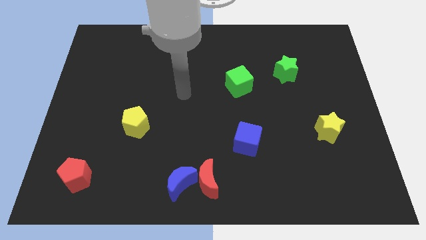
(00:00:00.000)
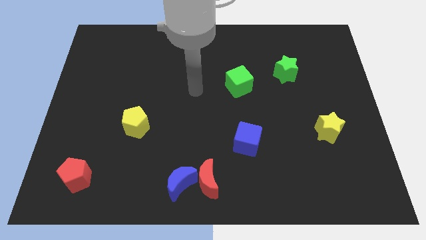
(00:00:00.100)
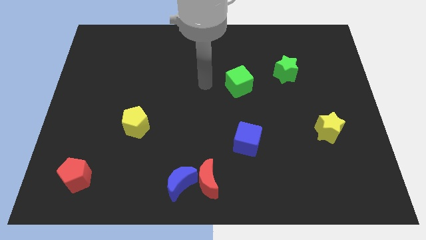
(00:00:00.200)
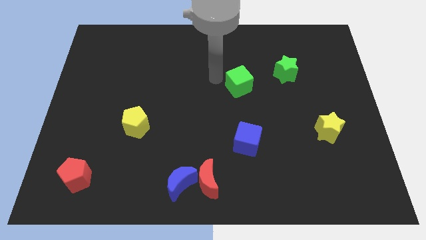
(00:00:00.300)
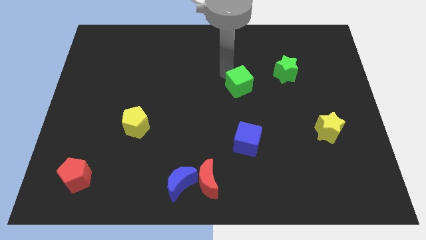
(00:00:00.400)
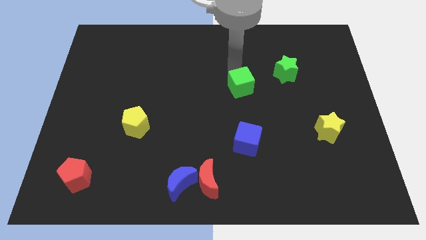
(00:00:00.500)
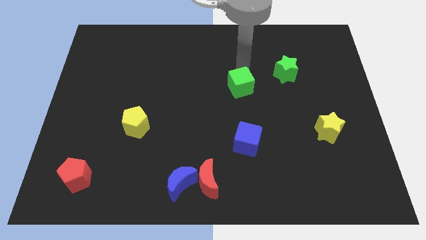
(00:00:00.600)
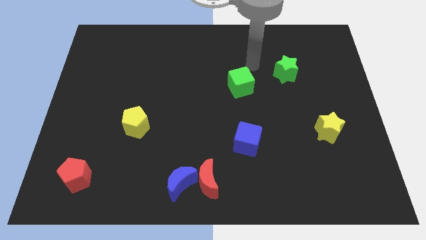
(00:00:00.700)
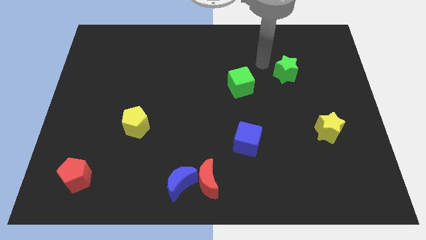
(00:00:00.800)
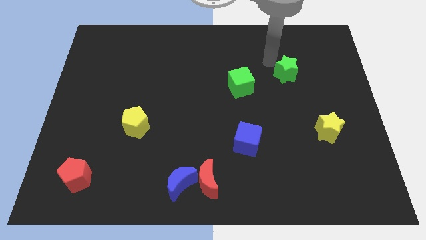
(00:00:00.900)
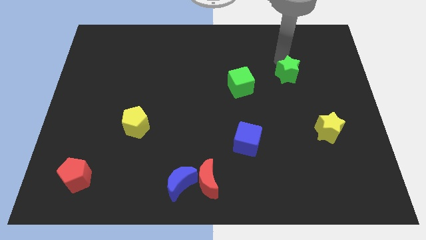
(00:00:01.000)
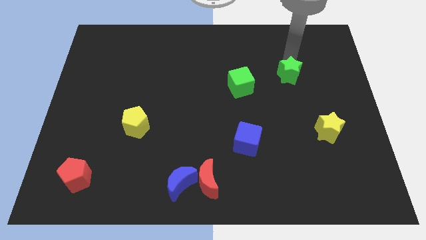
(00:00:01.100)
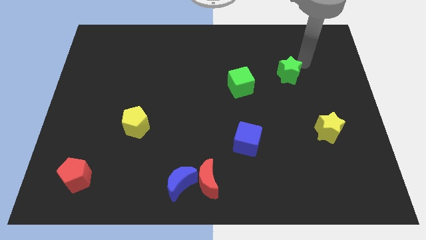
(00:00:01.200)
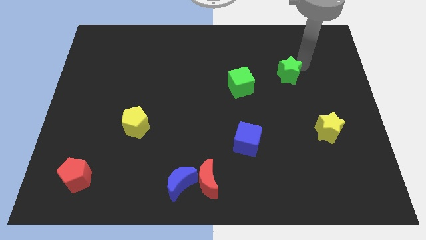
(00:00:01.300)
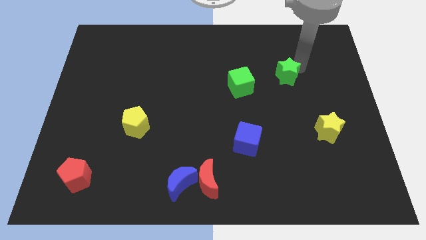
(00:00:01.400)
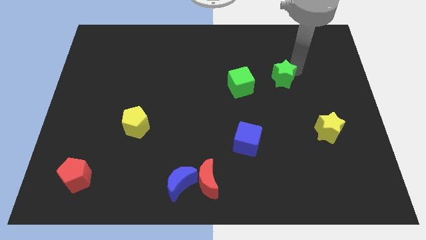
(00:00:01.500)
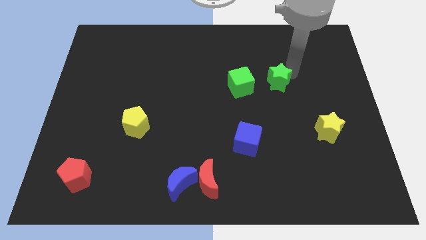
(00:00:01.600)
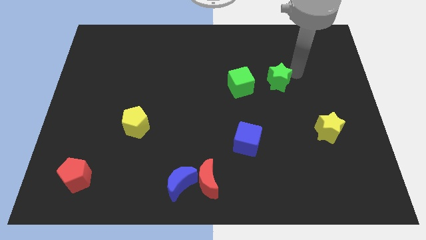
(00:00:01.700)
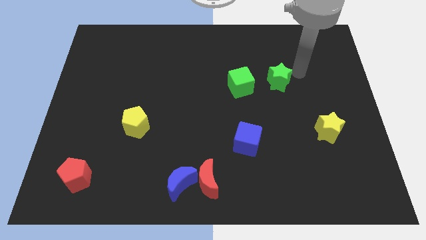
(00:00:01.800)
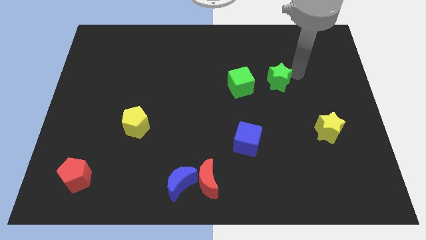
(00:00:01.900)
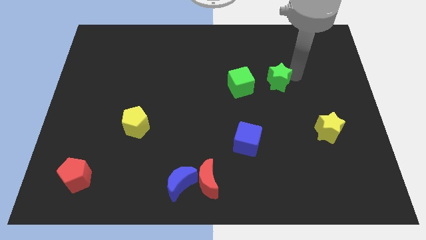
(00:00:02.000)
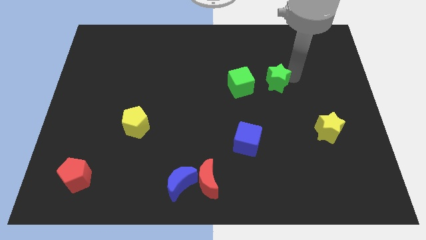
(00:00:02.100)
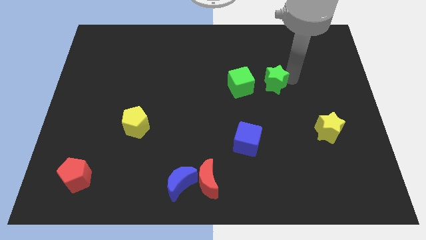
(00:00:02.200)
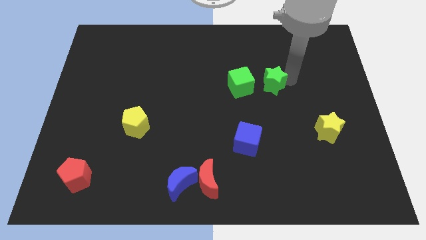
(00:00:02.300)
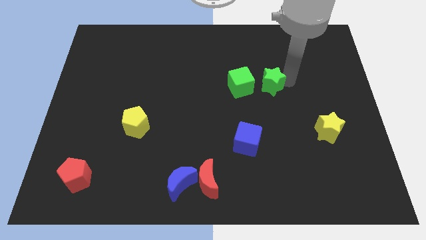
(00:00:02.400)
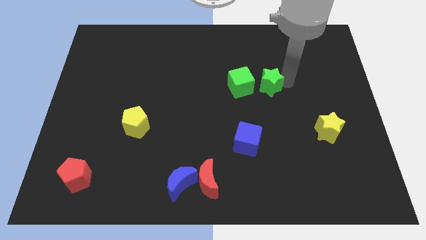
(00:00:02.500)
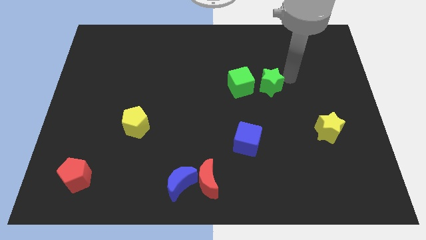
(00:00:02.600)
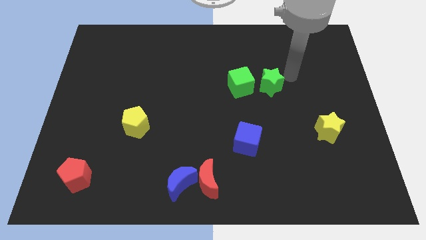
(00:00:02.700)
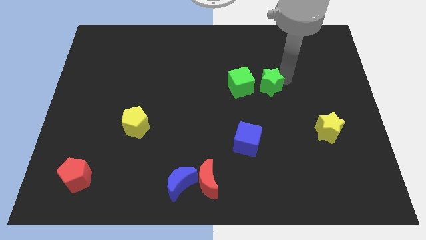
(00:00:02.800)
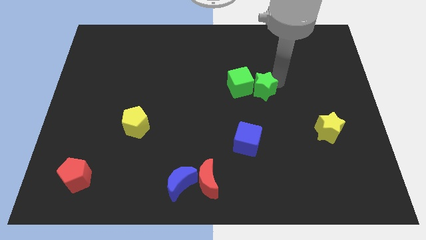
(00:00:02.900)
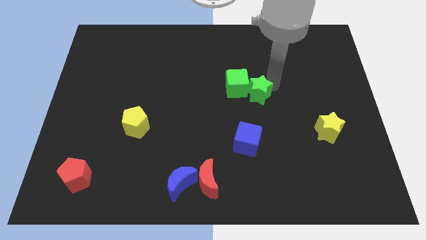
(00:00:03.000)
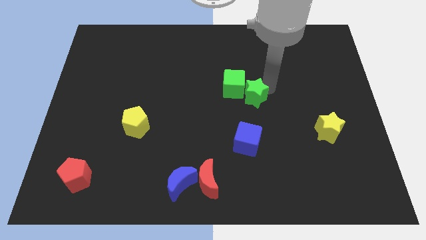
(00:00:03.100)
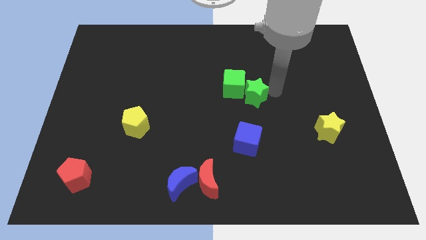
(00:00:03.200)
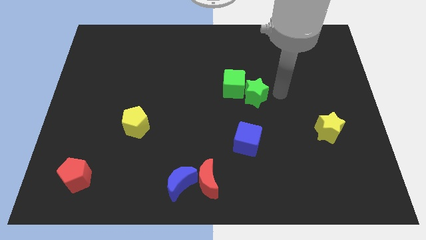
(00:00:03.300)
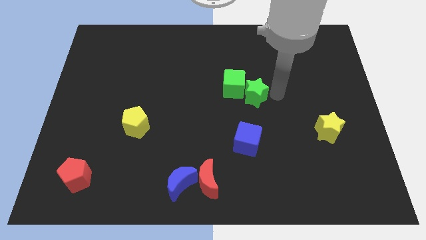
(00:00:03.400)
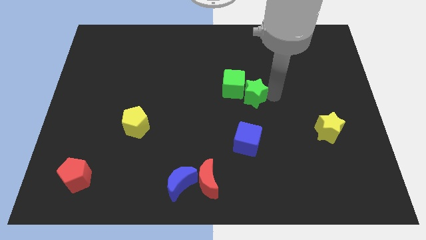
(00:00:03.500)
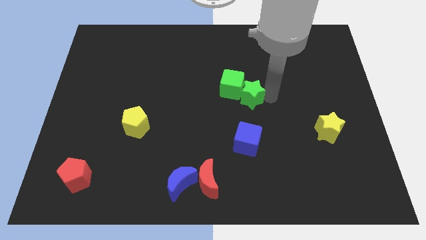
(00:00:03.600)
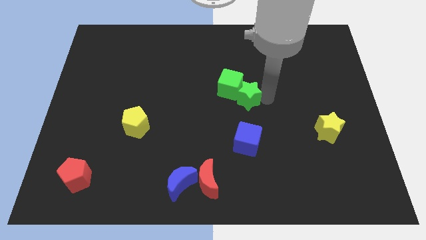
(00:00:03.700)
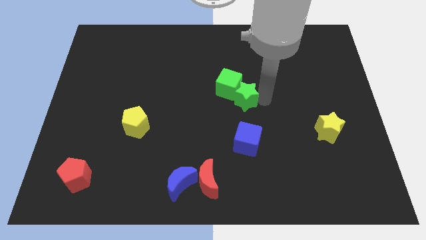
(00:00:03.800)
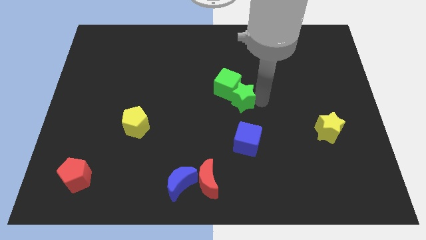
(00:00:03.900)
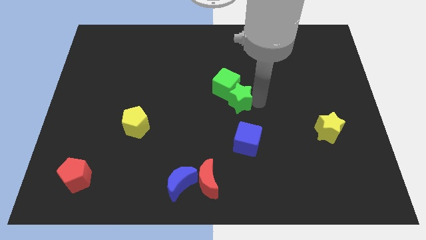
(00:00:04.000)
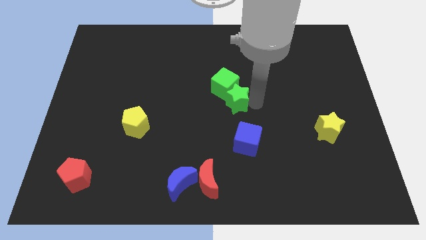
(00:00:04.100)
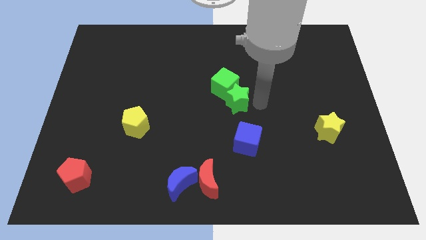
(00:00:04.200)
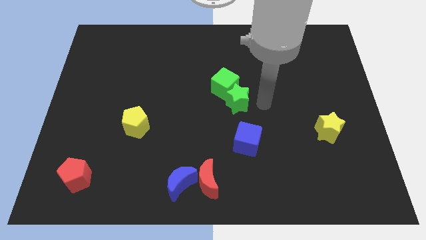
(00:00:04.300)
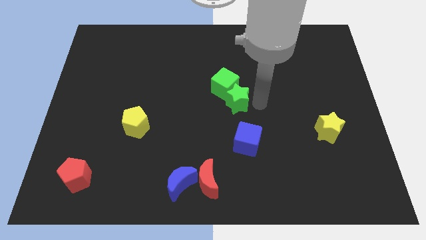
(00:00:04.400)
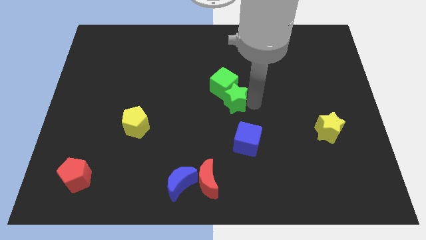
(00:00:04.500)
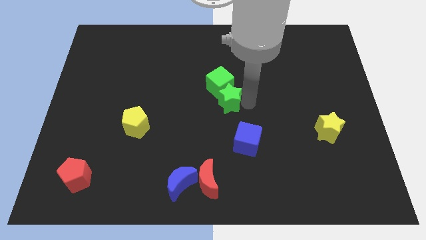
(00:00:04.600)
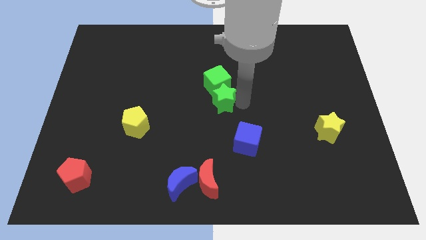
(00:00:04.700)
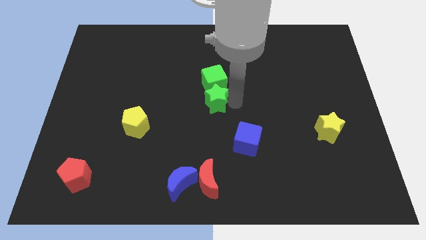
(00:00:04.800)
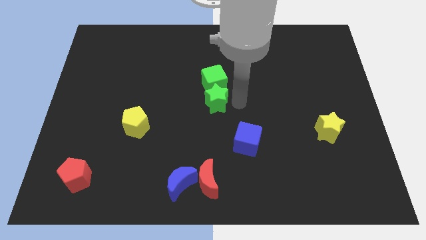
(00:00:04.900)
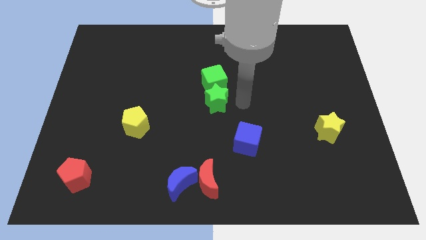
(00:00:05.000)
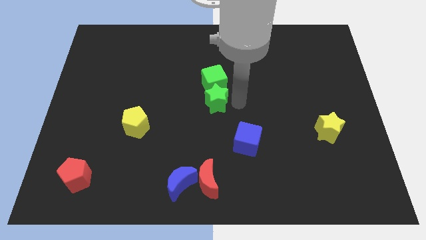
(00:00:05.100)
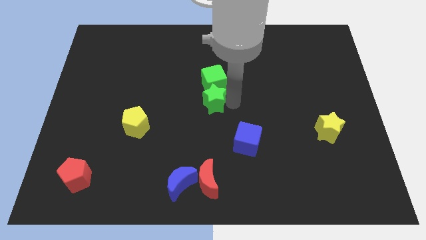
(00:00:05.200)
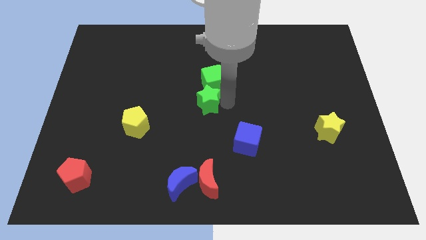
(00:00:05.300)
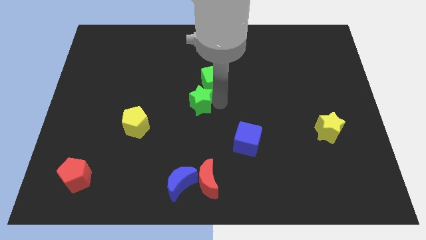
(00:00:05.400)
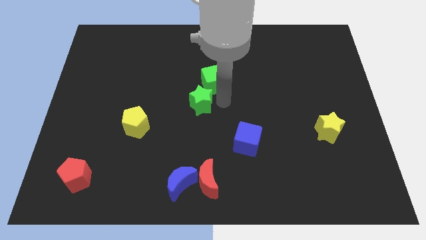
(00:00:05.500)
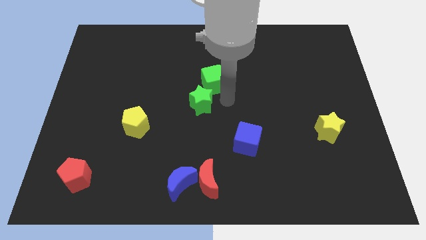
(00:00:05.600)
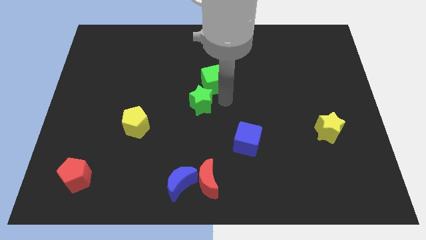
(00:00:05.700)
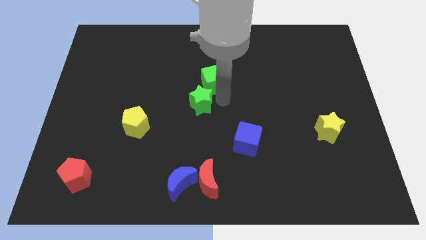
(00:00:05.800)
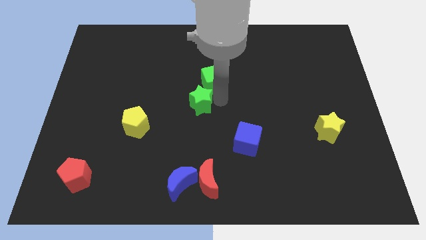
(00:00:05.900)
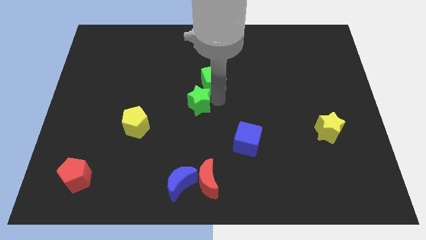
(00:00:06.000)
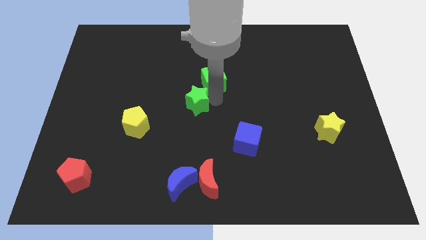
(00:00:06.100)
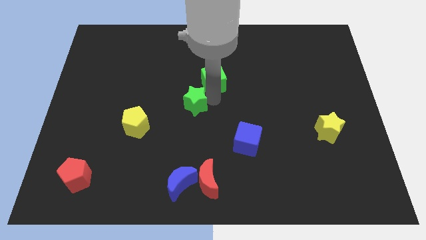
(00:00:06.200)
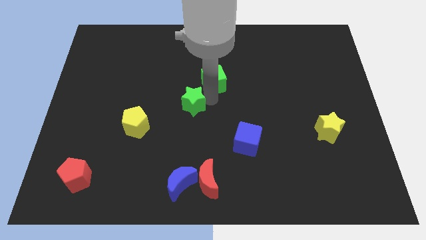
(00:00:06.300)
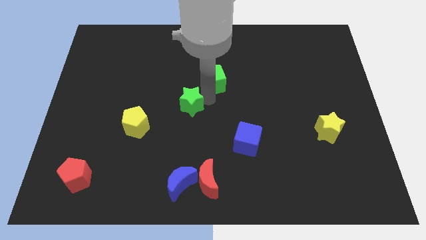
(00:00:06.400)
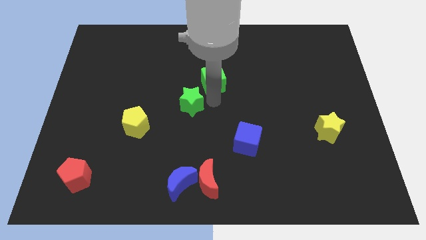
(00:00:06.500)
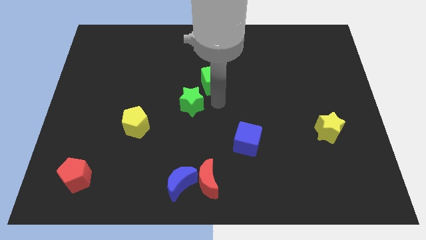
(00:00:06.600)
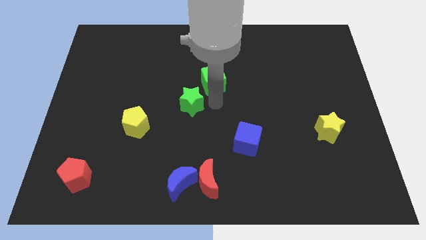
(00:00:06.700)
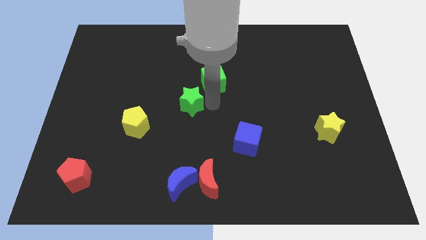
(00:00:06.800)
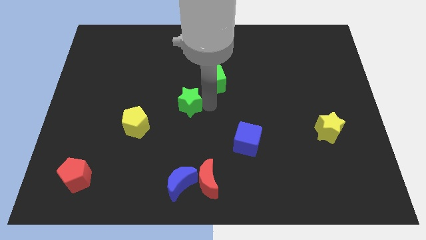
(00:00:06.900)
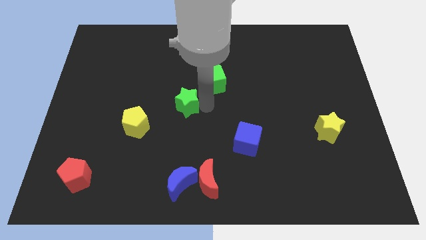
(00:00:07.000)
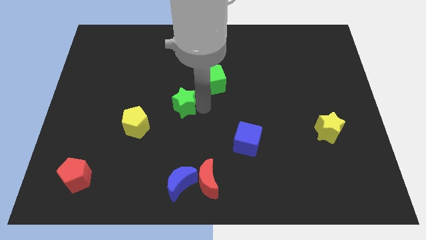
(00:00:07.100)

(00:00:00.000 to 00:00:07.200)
move the green star to the top right of the yellow pentagon
